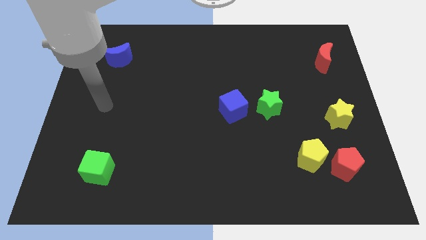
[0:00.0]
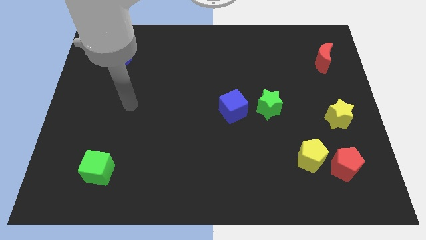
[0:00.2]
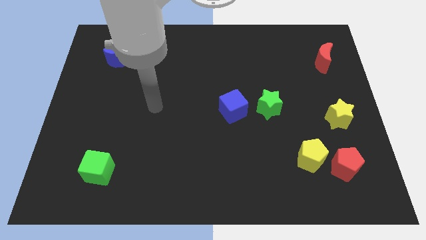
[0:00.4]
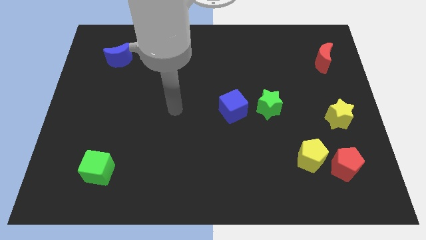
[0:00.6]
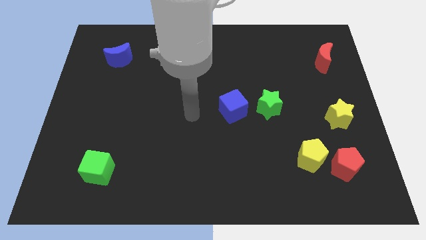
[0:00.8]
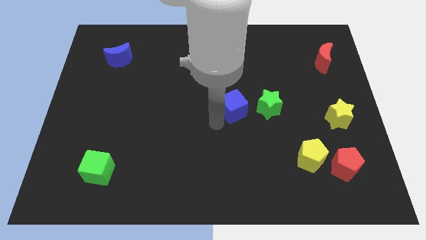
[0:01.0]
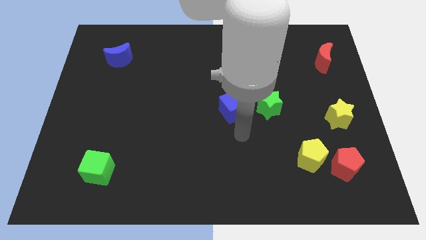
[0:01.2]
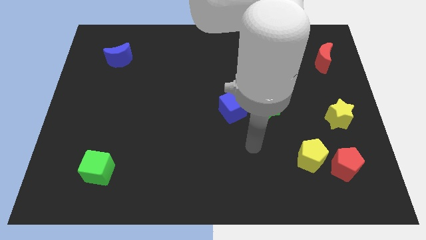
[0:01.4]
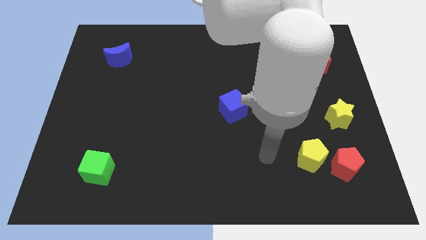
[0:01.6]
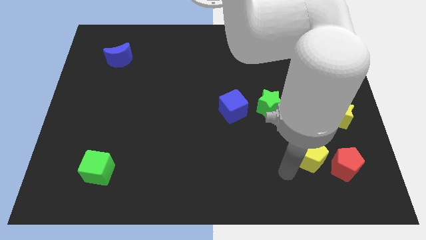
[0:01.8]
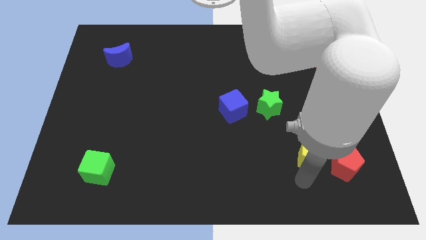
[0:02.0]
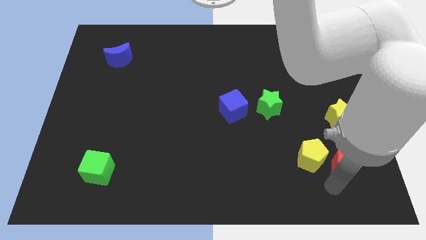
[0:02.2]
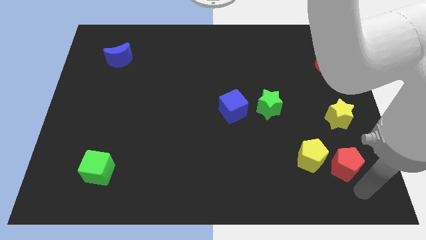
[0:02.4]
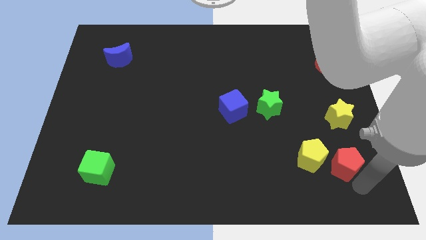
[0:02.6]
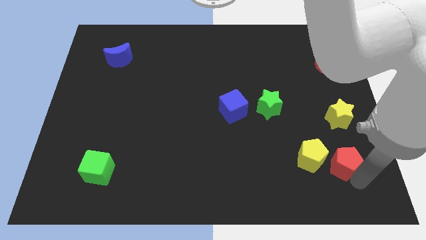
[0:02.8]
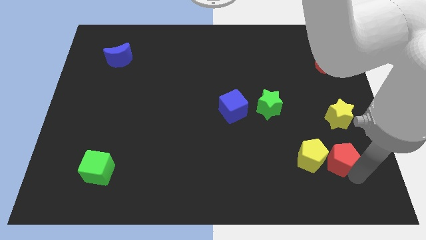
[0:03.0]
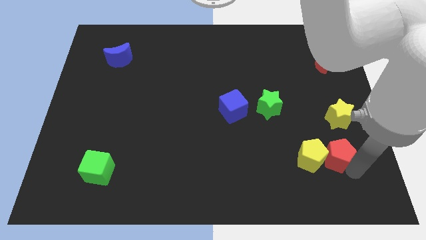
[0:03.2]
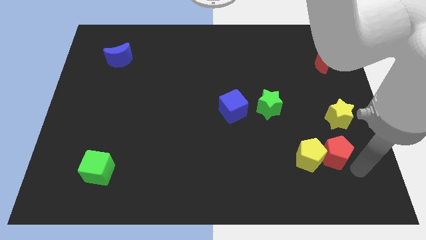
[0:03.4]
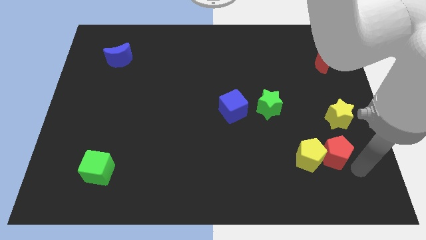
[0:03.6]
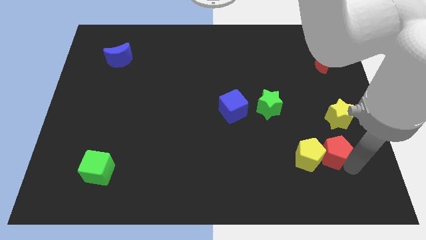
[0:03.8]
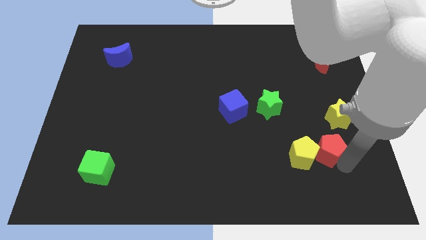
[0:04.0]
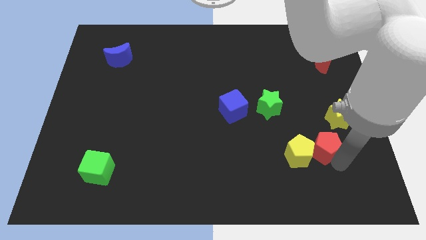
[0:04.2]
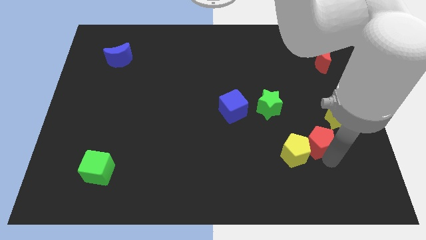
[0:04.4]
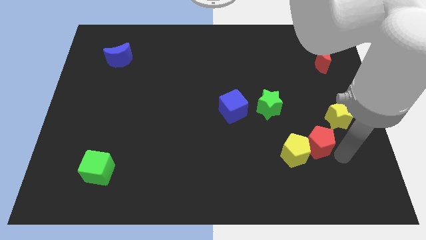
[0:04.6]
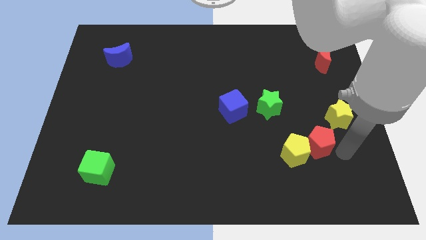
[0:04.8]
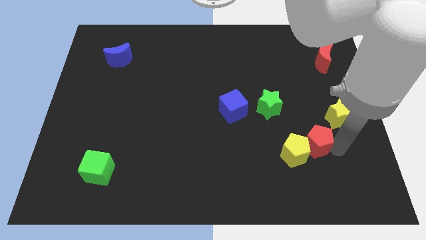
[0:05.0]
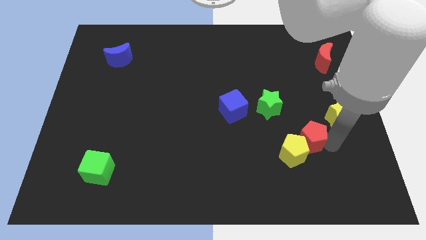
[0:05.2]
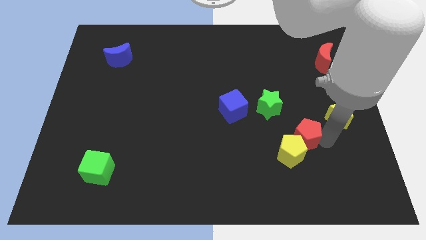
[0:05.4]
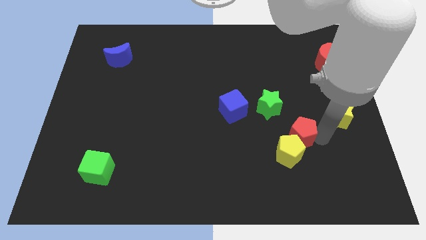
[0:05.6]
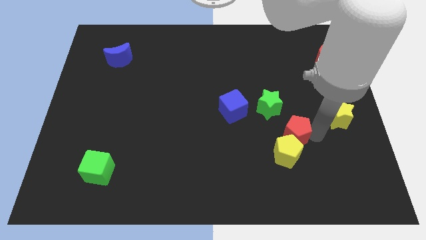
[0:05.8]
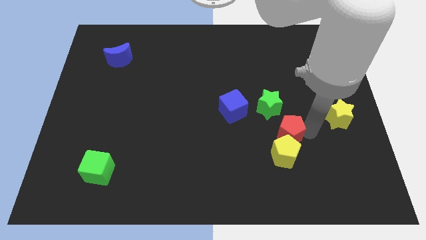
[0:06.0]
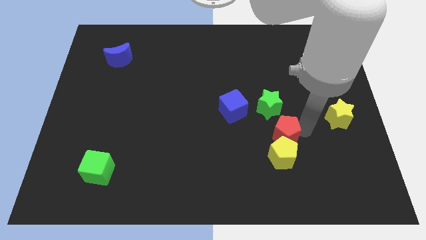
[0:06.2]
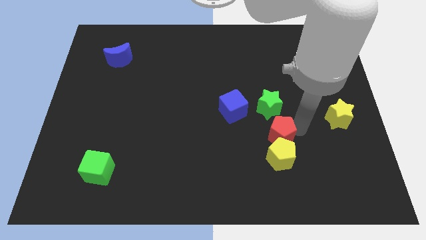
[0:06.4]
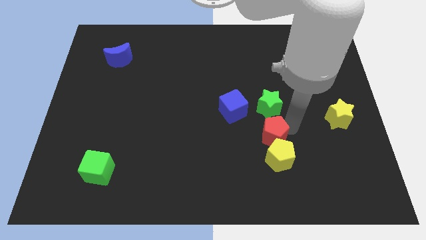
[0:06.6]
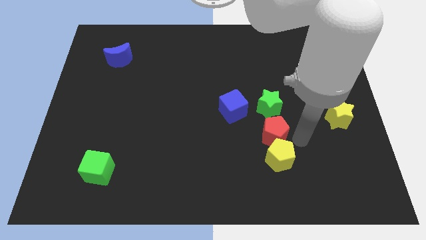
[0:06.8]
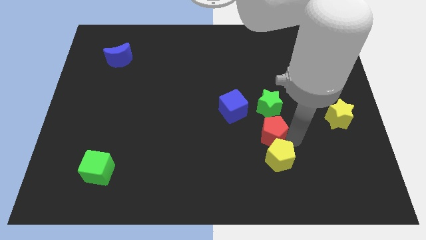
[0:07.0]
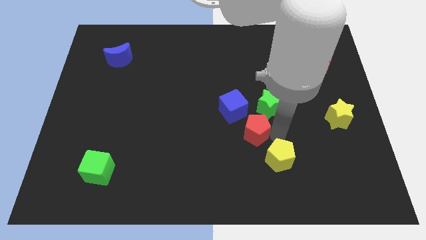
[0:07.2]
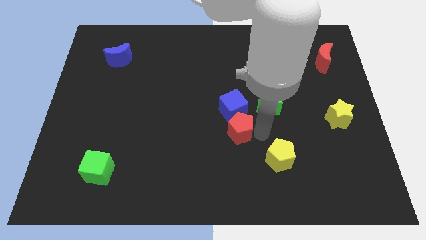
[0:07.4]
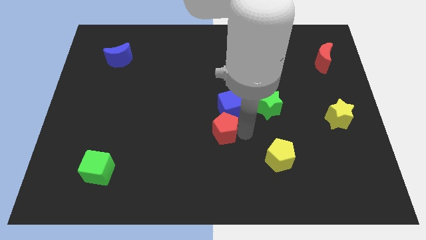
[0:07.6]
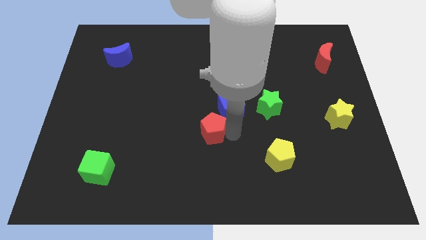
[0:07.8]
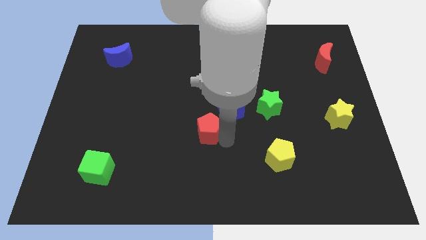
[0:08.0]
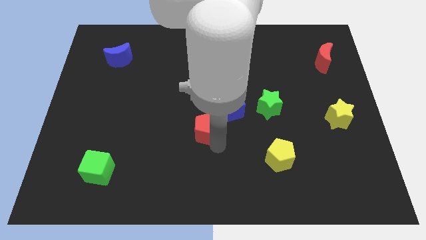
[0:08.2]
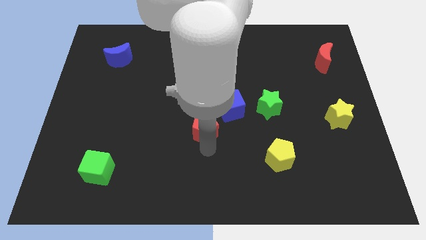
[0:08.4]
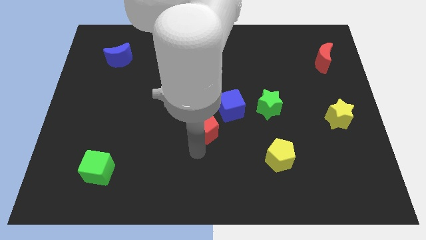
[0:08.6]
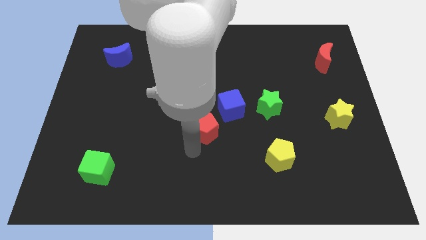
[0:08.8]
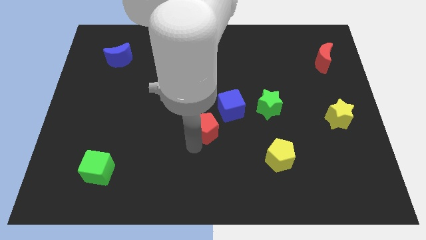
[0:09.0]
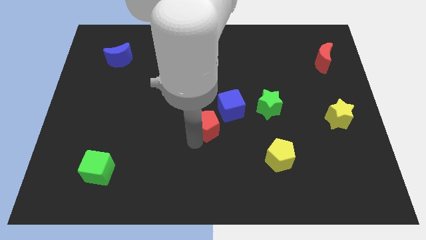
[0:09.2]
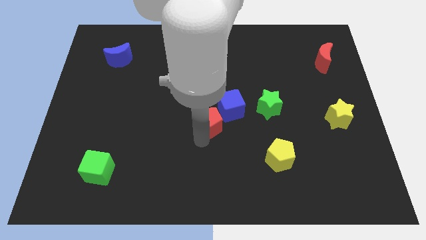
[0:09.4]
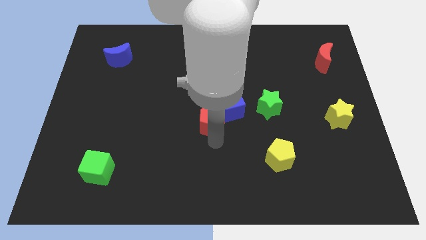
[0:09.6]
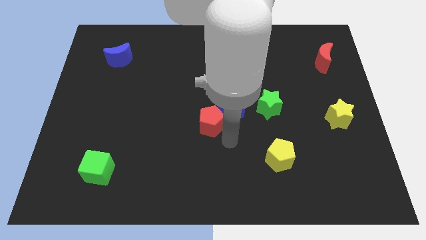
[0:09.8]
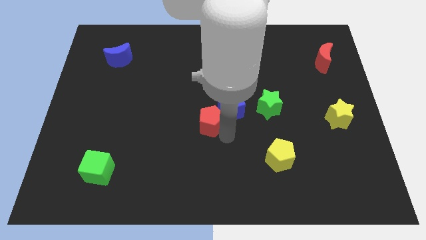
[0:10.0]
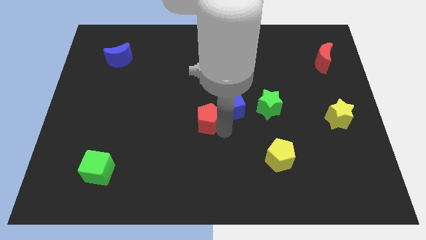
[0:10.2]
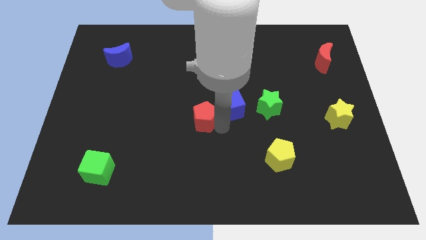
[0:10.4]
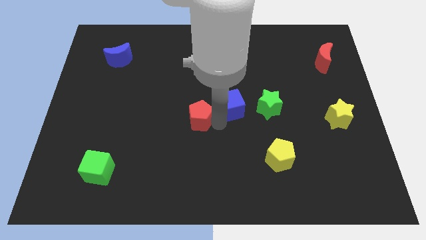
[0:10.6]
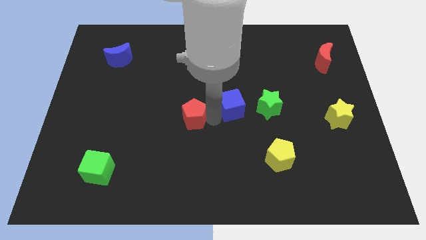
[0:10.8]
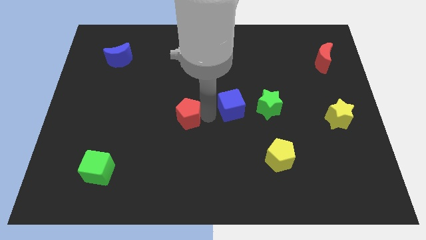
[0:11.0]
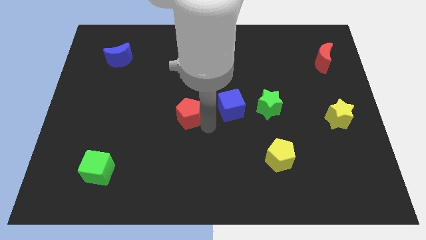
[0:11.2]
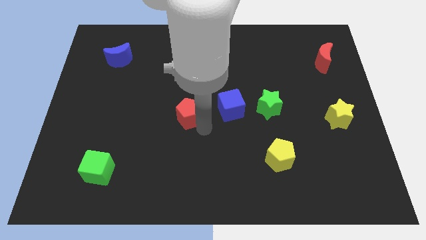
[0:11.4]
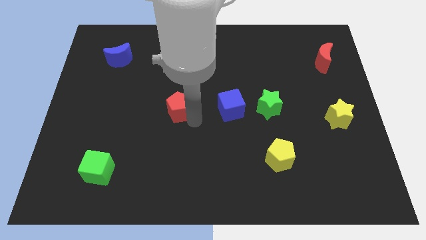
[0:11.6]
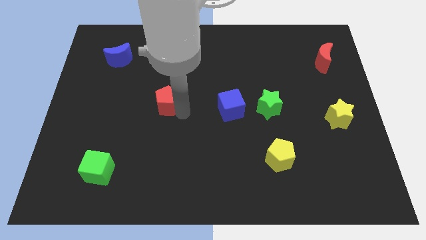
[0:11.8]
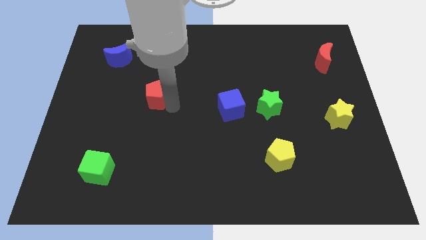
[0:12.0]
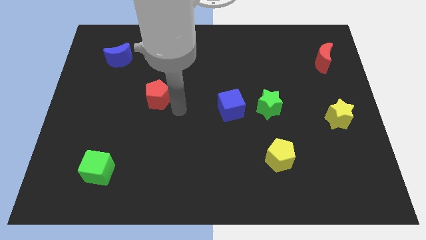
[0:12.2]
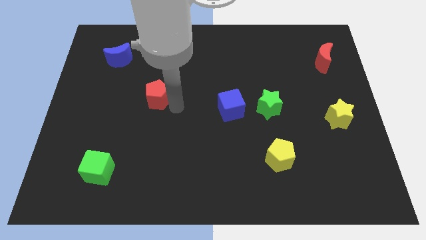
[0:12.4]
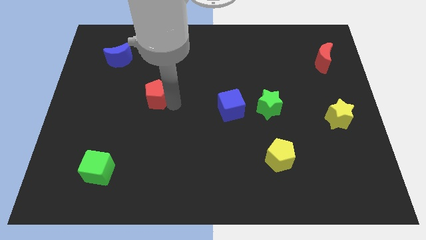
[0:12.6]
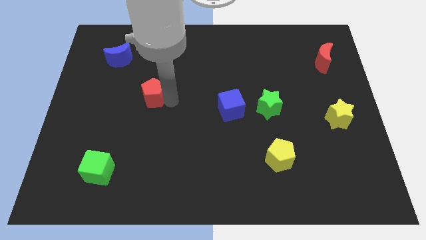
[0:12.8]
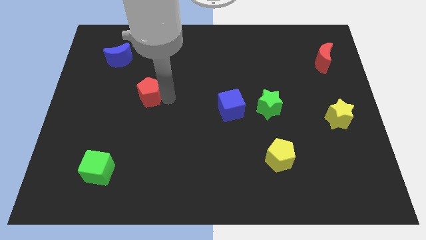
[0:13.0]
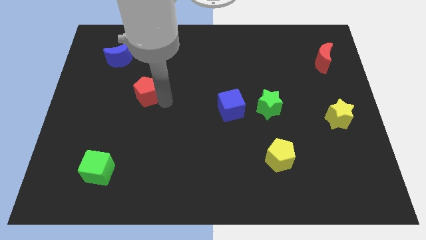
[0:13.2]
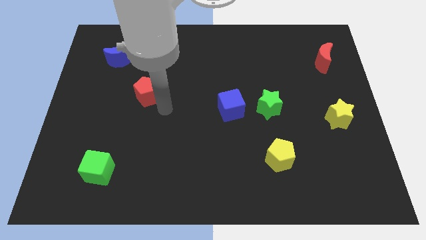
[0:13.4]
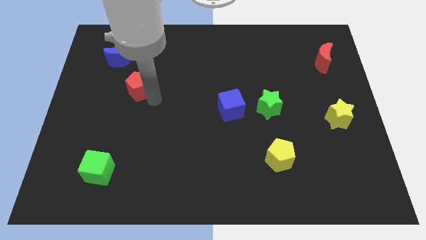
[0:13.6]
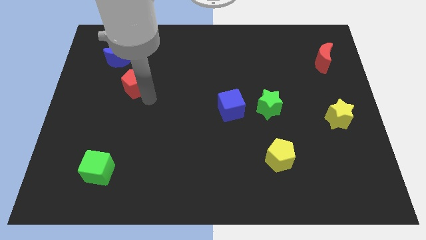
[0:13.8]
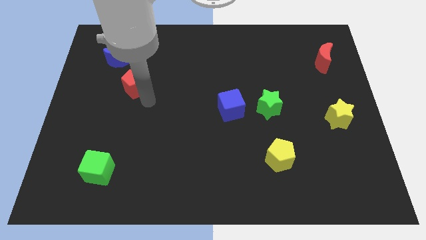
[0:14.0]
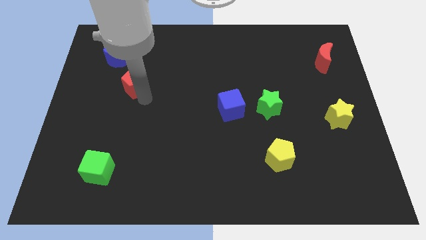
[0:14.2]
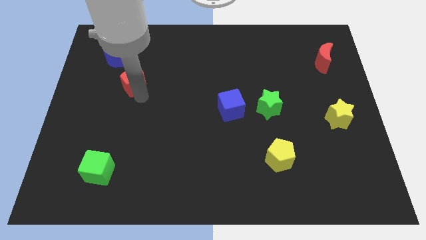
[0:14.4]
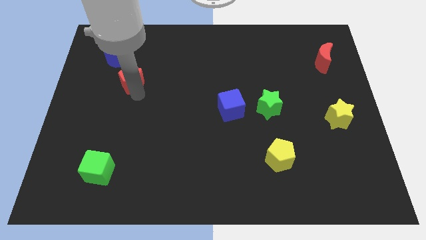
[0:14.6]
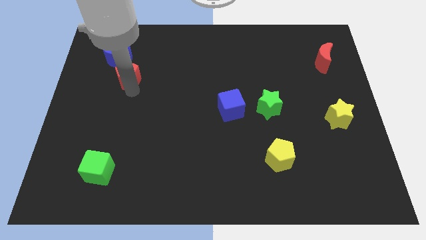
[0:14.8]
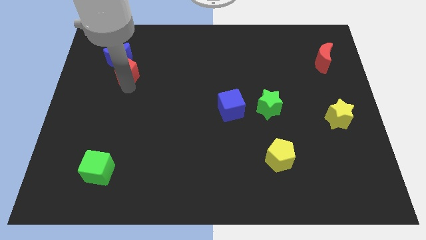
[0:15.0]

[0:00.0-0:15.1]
push the red pentagon towards the blue moon
